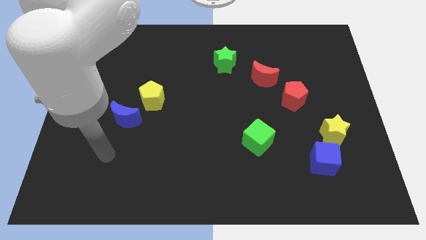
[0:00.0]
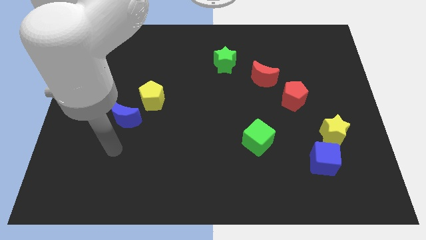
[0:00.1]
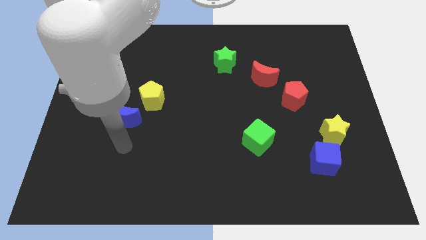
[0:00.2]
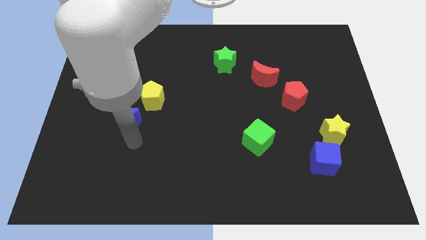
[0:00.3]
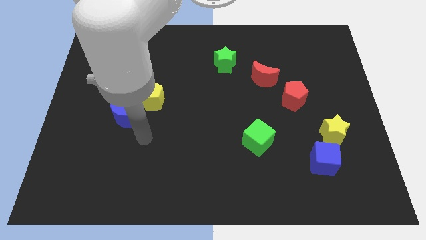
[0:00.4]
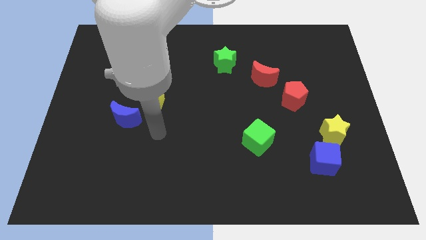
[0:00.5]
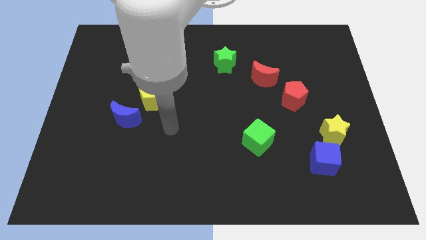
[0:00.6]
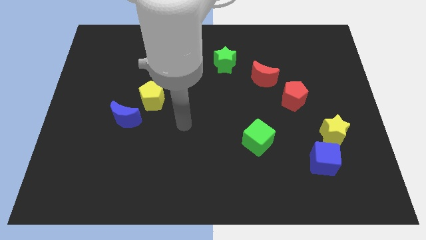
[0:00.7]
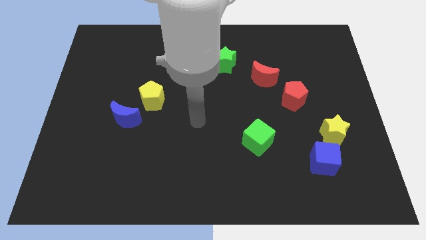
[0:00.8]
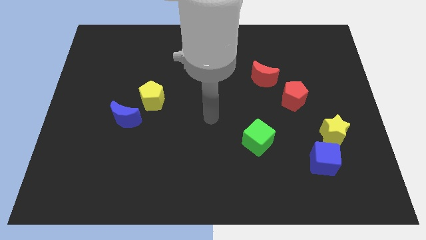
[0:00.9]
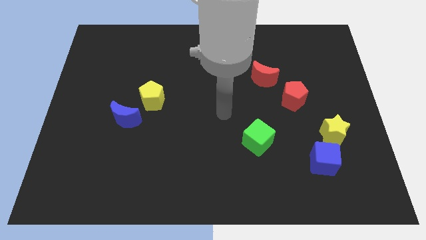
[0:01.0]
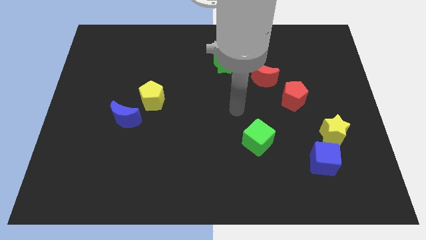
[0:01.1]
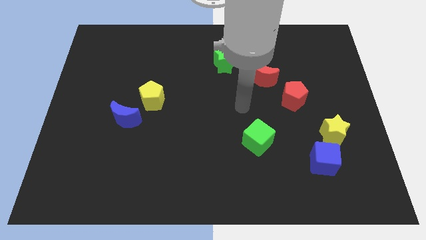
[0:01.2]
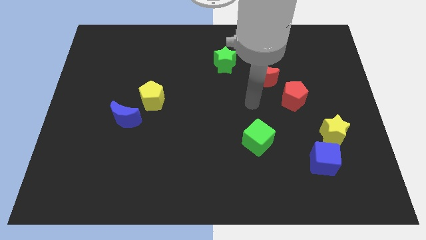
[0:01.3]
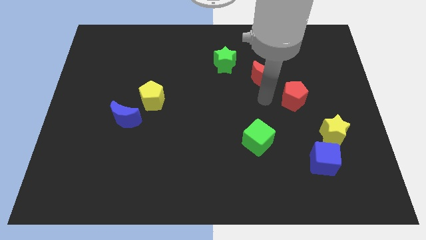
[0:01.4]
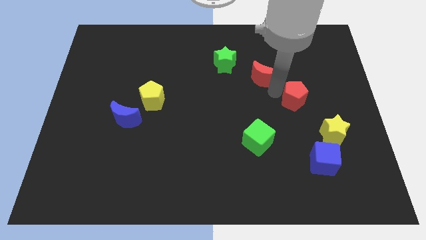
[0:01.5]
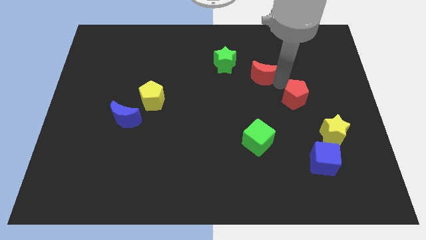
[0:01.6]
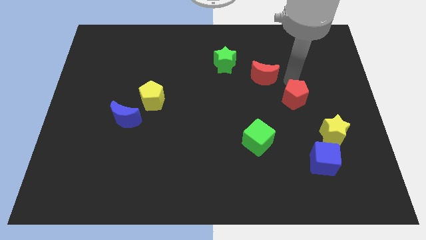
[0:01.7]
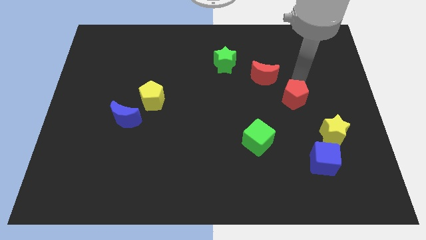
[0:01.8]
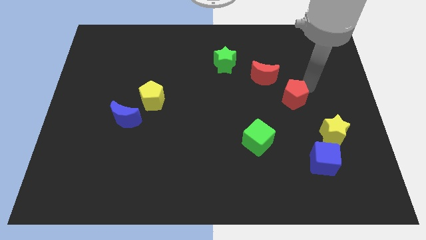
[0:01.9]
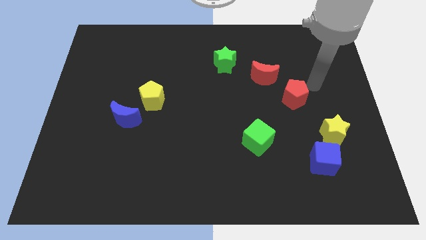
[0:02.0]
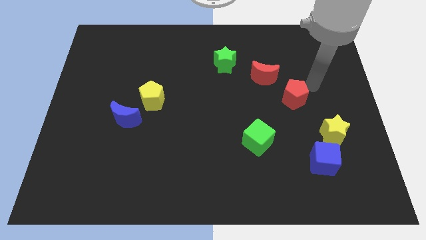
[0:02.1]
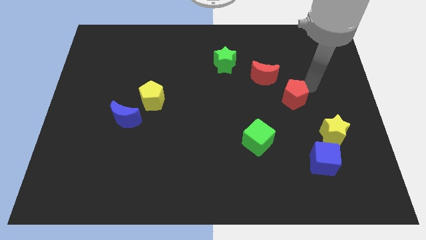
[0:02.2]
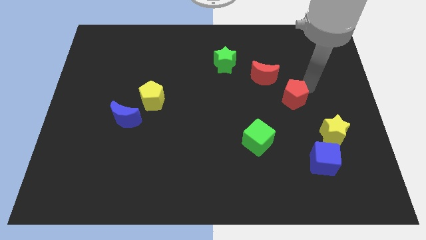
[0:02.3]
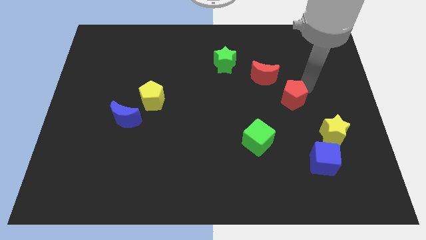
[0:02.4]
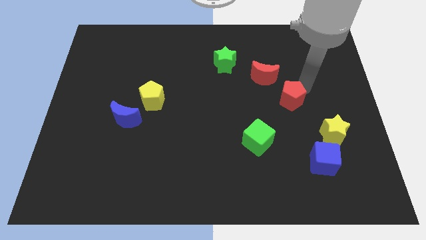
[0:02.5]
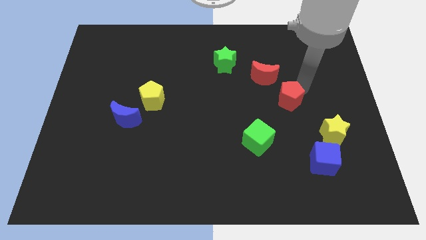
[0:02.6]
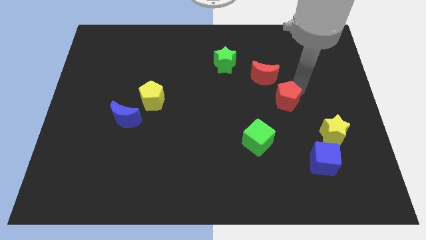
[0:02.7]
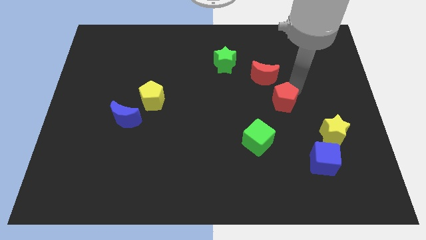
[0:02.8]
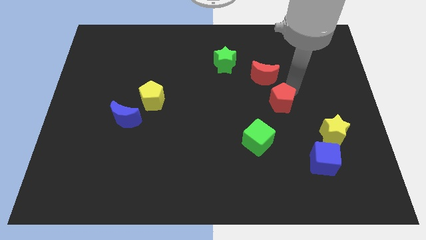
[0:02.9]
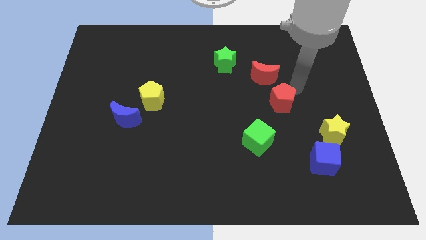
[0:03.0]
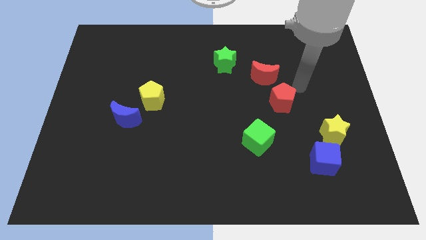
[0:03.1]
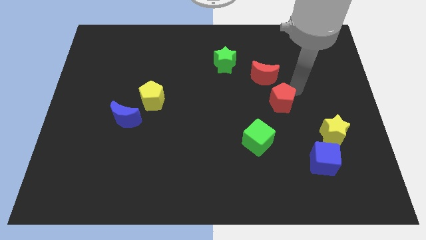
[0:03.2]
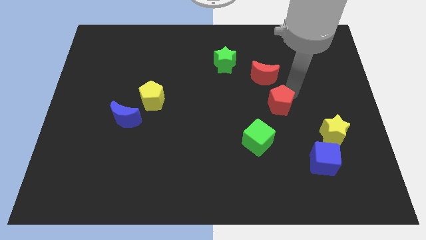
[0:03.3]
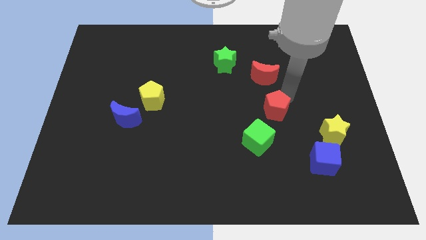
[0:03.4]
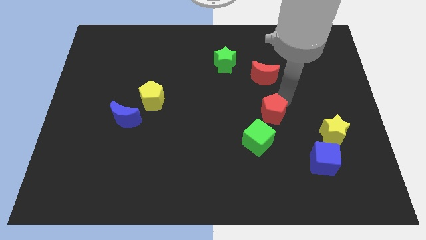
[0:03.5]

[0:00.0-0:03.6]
slightly move the red pentagon down and then left

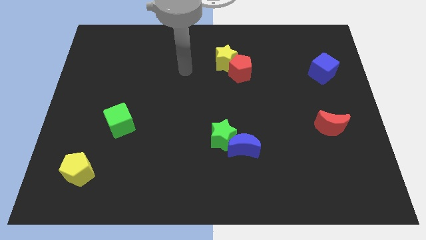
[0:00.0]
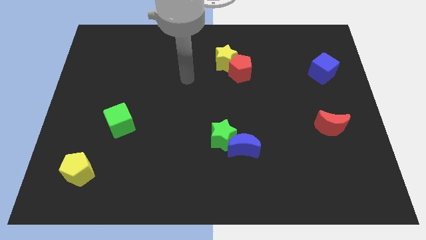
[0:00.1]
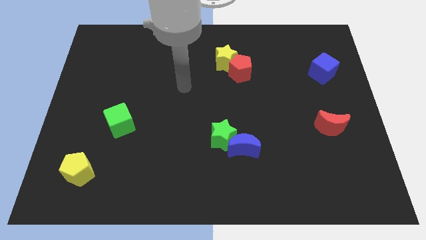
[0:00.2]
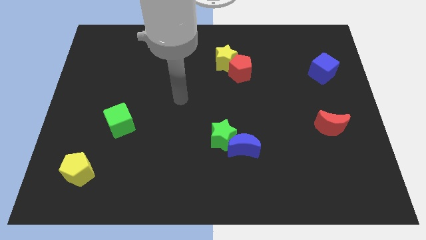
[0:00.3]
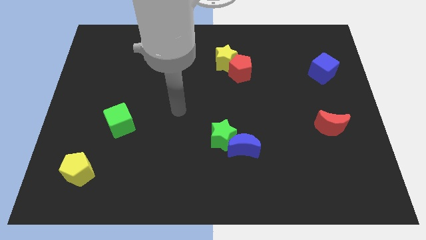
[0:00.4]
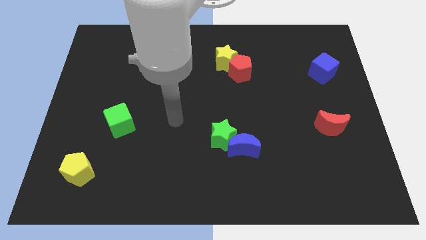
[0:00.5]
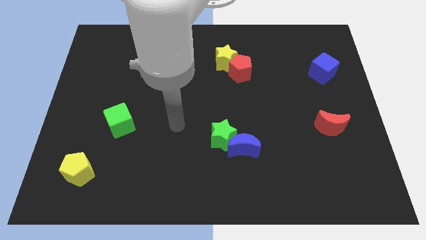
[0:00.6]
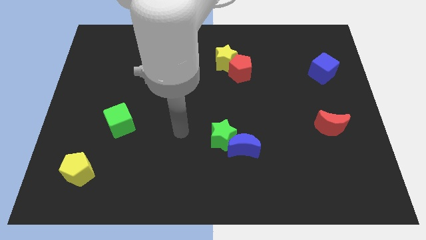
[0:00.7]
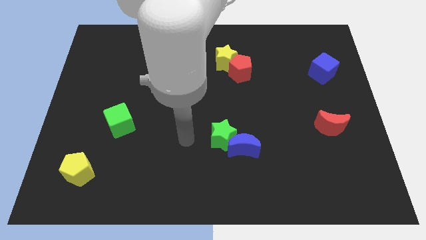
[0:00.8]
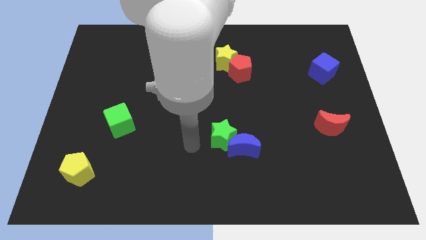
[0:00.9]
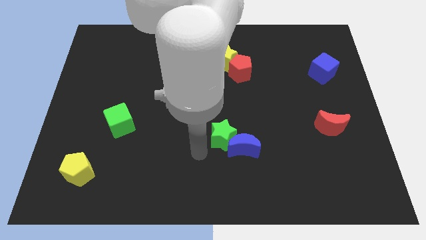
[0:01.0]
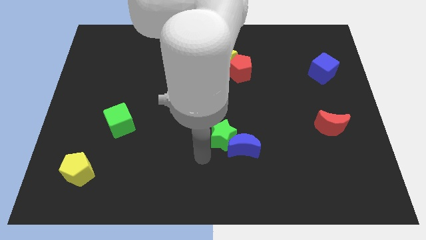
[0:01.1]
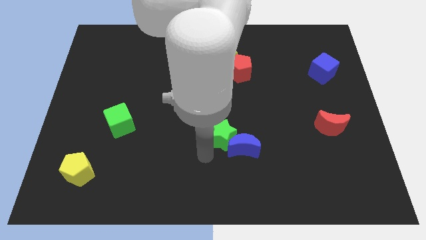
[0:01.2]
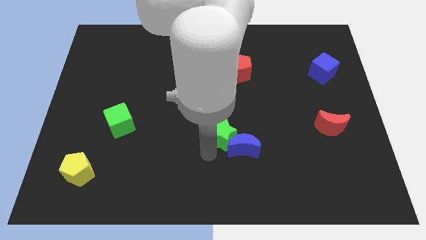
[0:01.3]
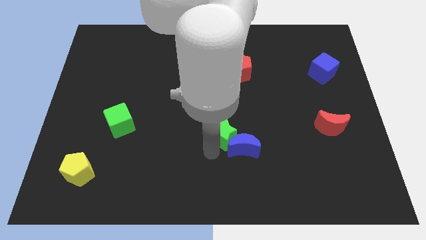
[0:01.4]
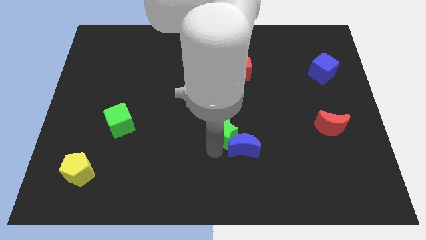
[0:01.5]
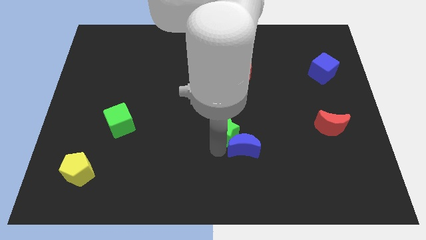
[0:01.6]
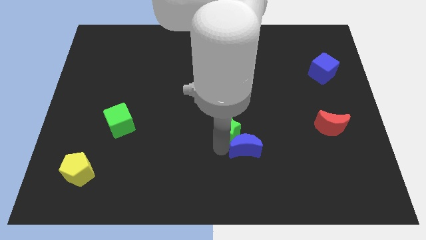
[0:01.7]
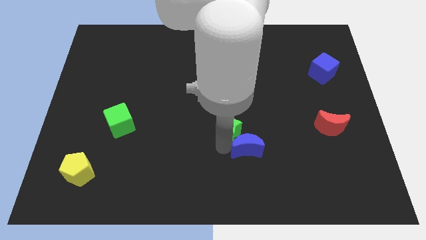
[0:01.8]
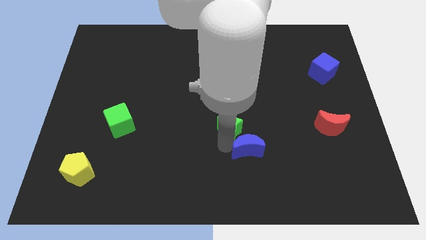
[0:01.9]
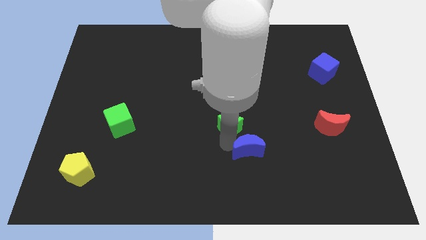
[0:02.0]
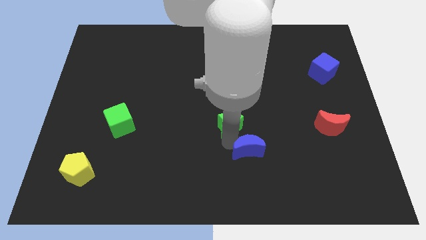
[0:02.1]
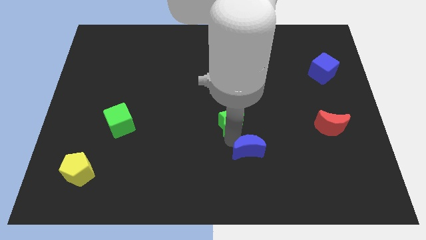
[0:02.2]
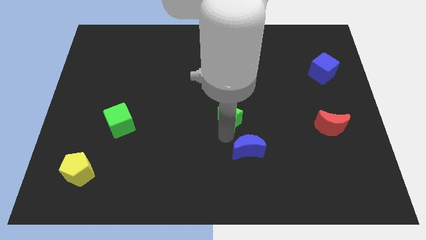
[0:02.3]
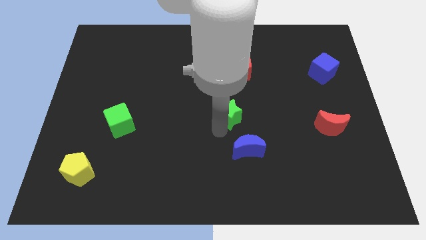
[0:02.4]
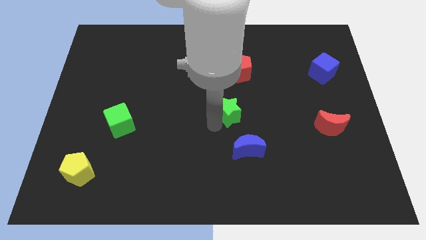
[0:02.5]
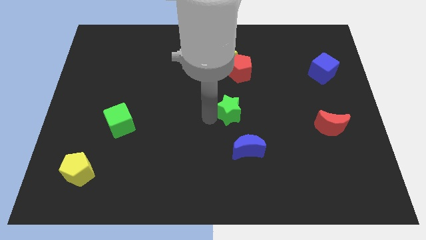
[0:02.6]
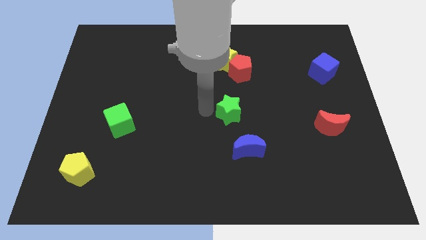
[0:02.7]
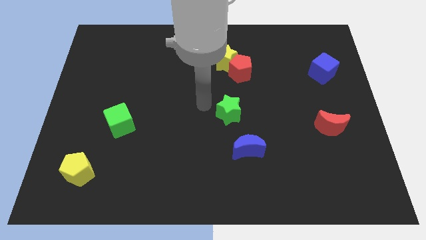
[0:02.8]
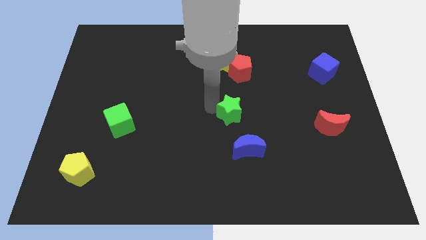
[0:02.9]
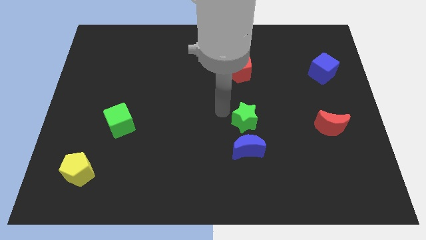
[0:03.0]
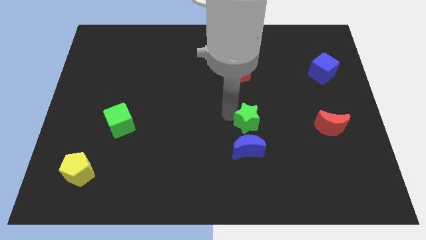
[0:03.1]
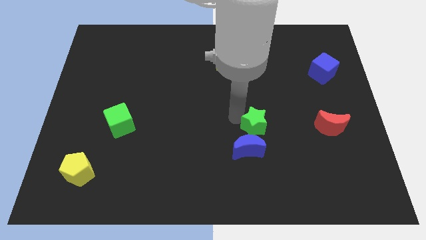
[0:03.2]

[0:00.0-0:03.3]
slightly slide the green star right

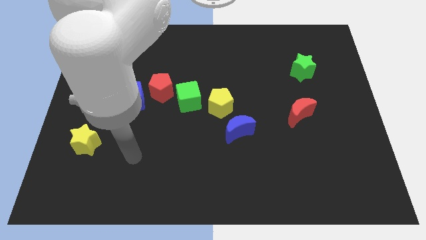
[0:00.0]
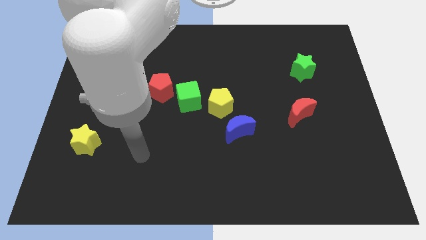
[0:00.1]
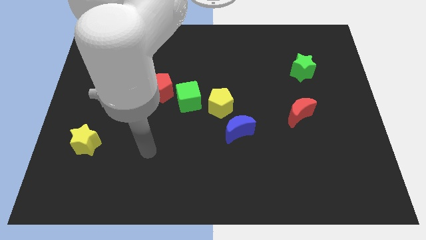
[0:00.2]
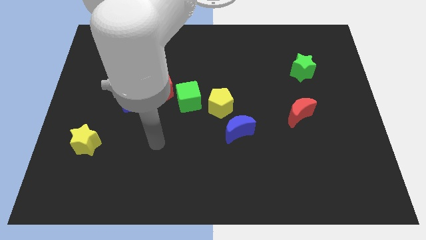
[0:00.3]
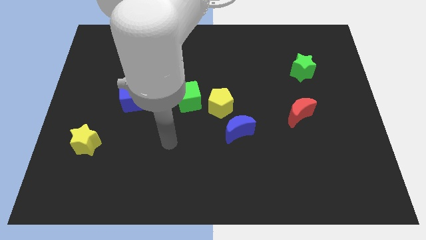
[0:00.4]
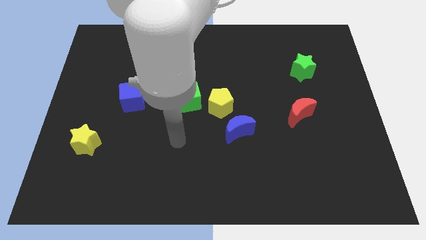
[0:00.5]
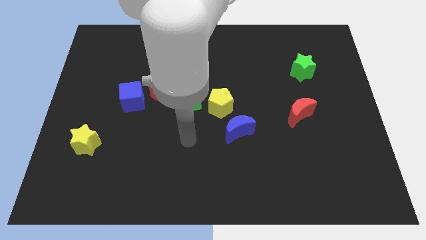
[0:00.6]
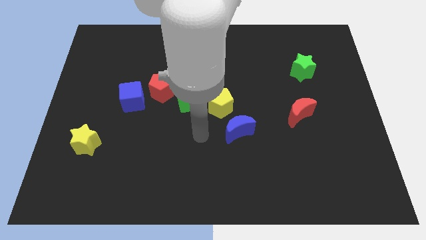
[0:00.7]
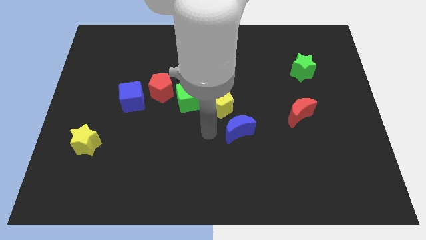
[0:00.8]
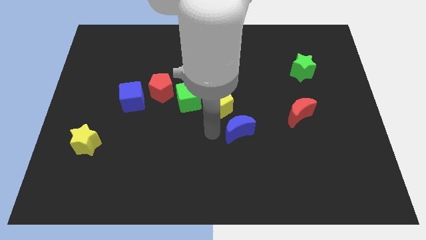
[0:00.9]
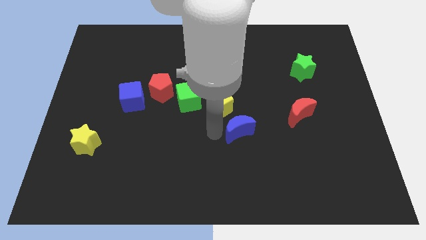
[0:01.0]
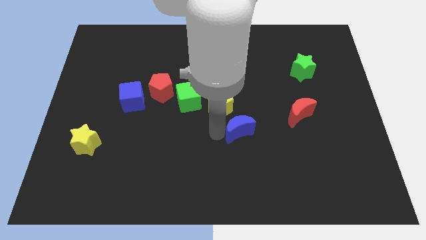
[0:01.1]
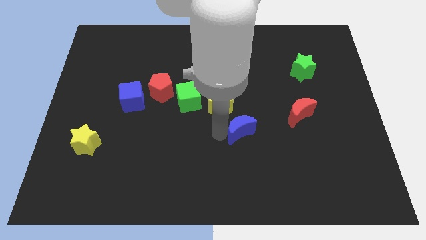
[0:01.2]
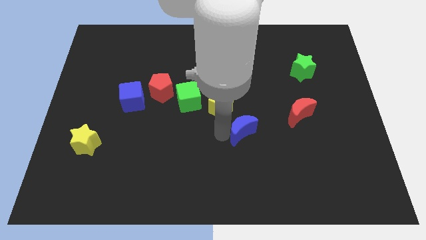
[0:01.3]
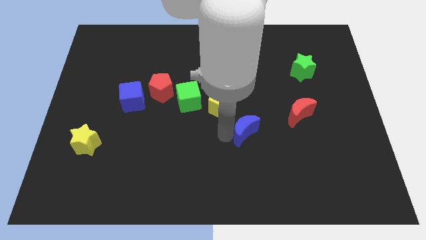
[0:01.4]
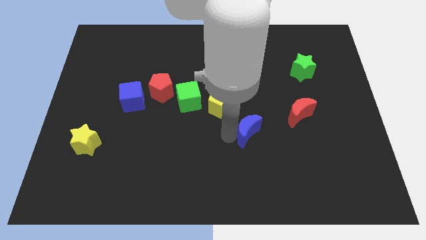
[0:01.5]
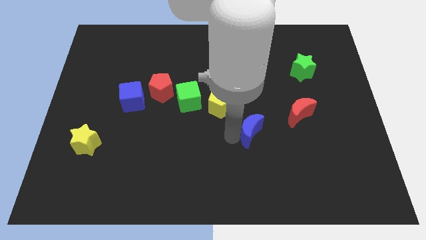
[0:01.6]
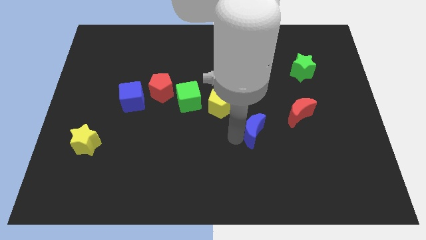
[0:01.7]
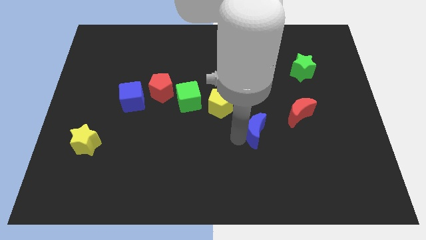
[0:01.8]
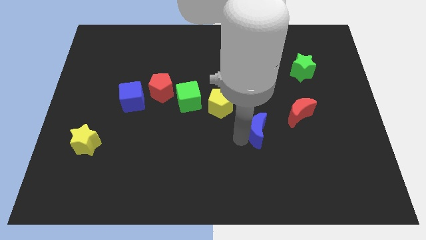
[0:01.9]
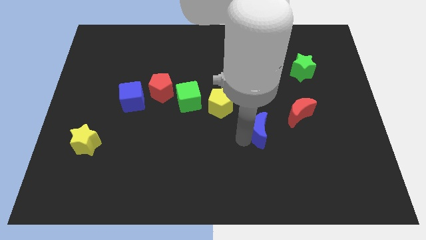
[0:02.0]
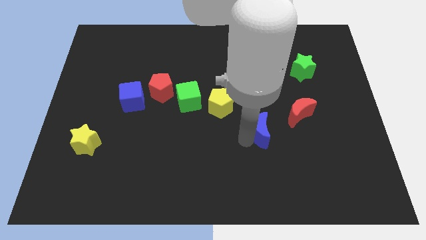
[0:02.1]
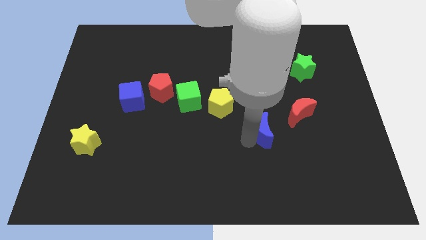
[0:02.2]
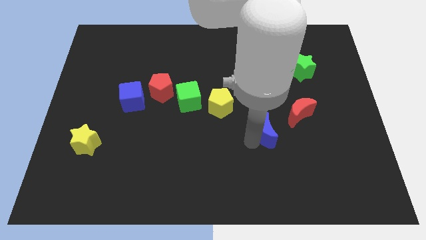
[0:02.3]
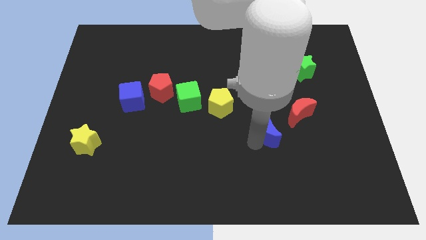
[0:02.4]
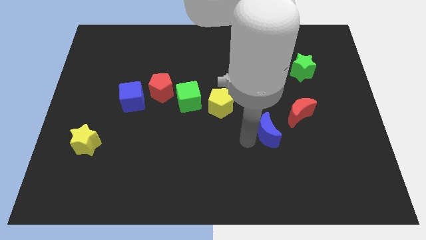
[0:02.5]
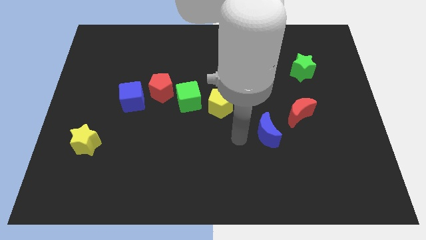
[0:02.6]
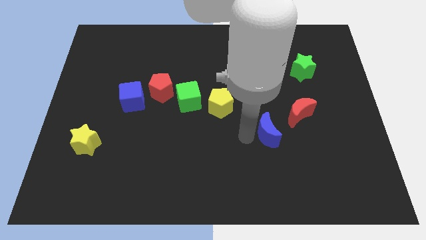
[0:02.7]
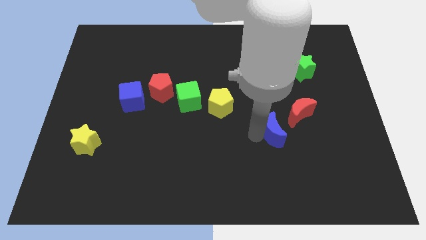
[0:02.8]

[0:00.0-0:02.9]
push the blue moon somewhat to the right
